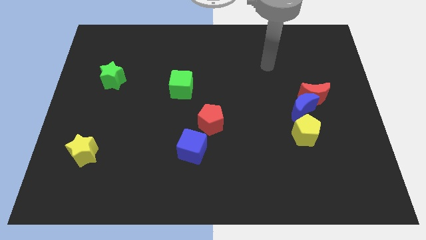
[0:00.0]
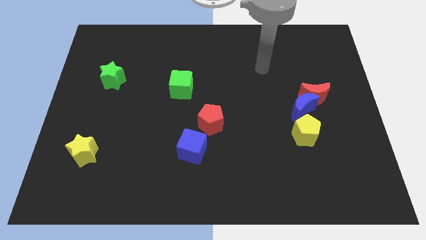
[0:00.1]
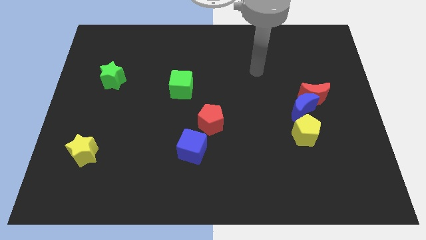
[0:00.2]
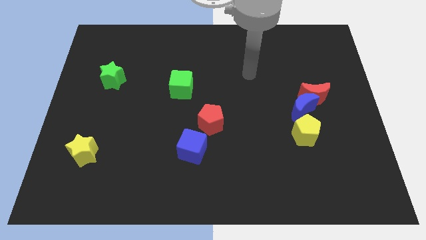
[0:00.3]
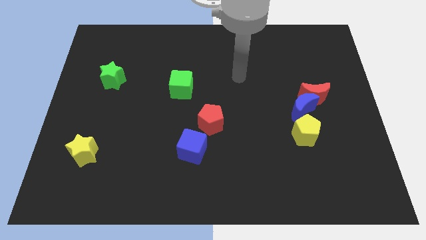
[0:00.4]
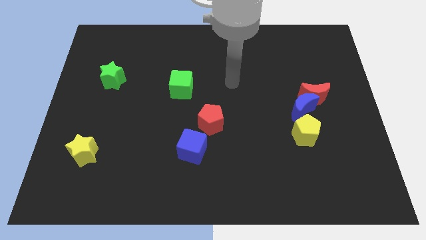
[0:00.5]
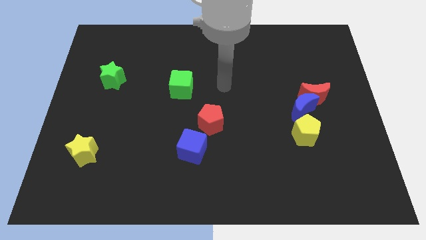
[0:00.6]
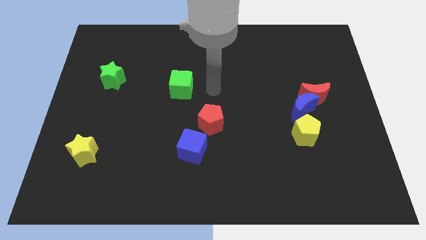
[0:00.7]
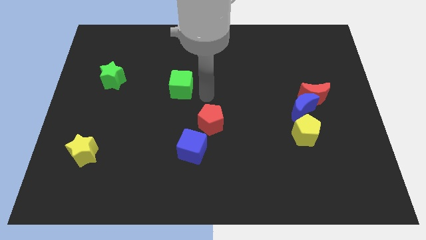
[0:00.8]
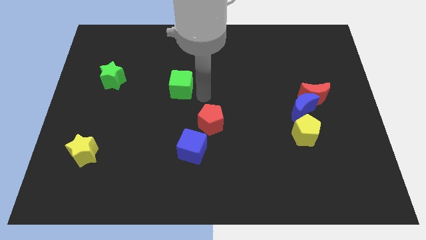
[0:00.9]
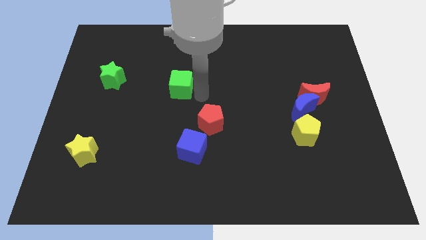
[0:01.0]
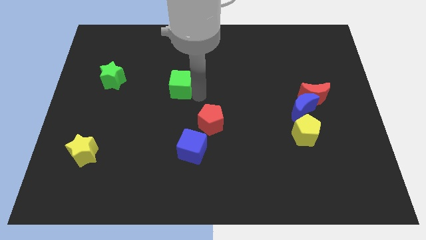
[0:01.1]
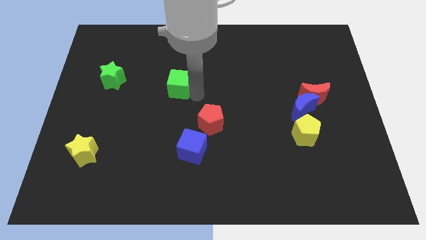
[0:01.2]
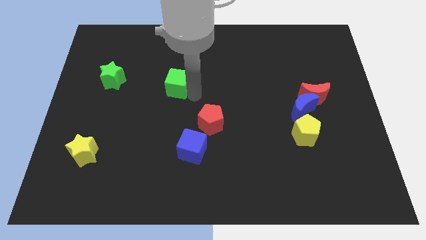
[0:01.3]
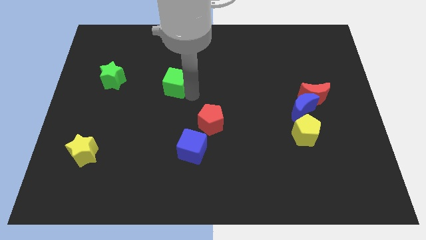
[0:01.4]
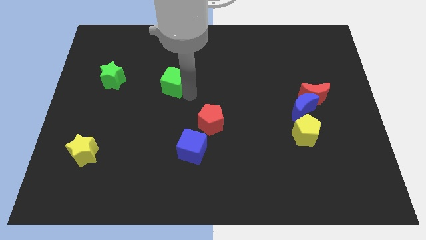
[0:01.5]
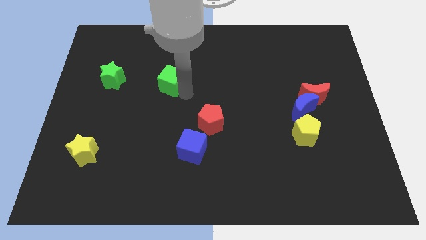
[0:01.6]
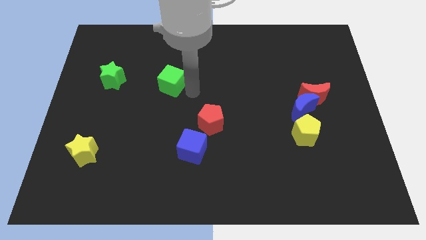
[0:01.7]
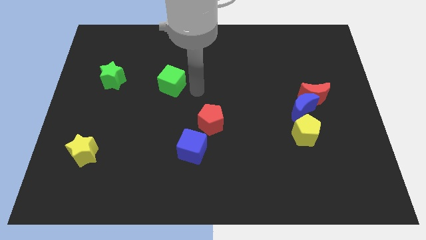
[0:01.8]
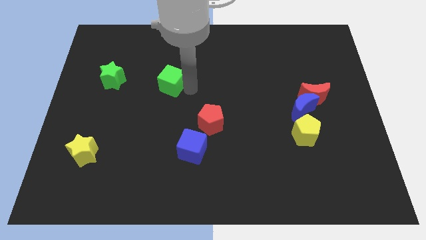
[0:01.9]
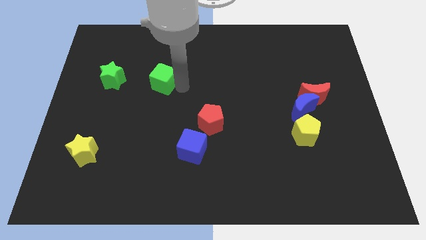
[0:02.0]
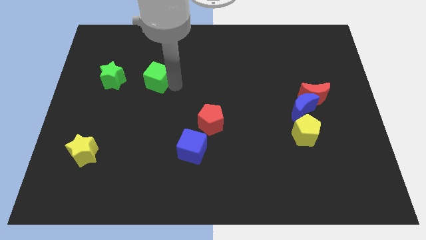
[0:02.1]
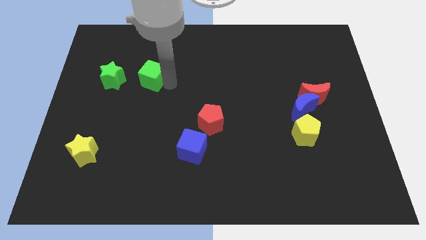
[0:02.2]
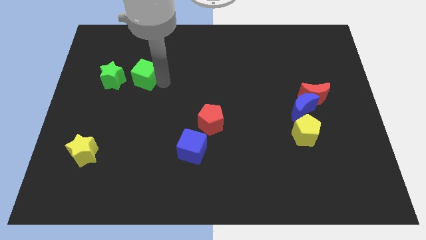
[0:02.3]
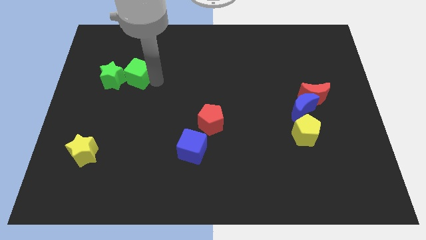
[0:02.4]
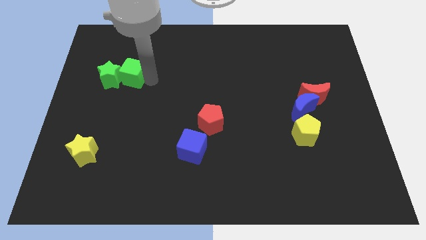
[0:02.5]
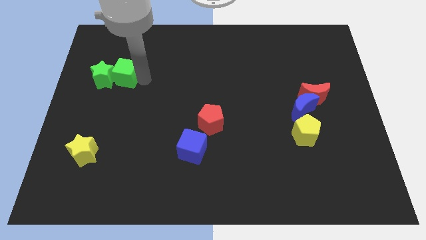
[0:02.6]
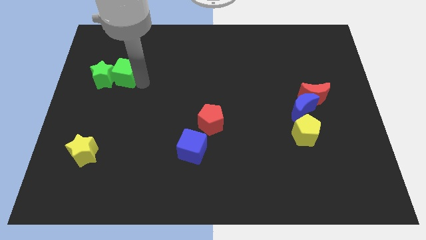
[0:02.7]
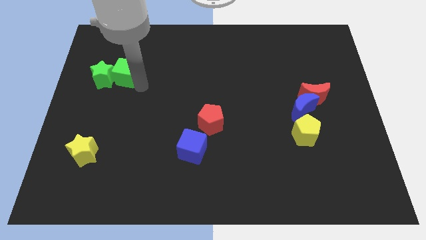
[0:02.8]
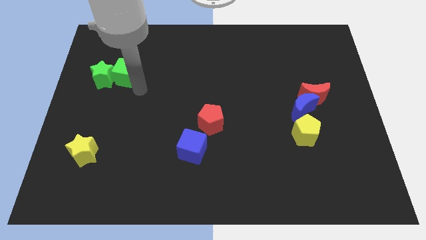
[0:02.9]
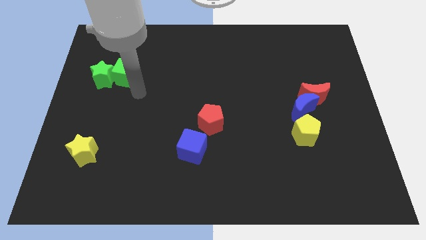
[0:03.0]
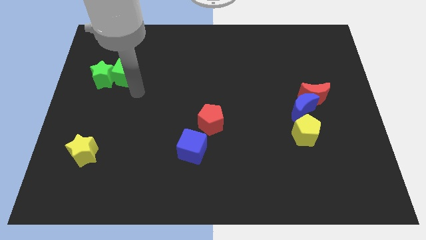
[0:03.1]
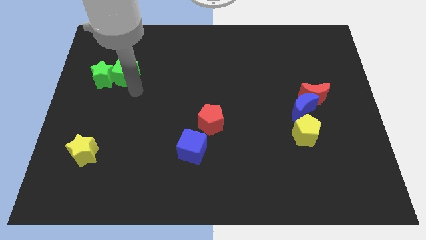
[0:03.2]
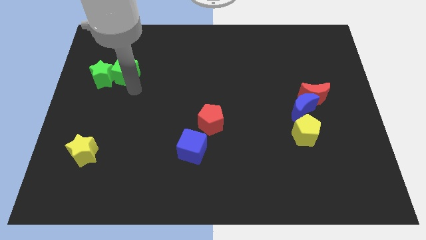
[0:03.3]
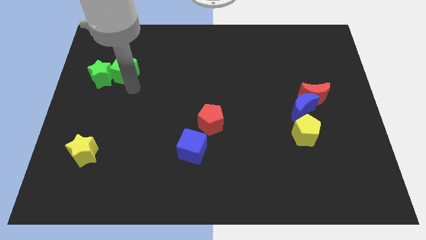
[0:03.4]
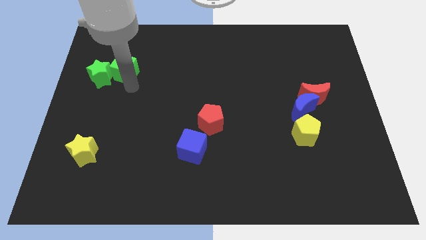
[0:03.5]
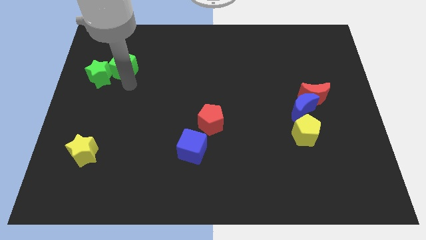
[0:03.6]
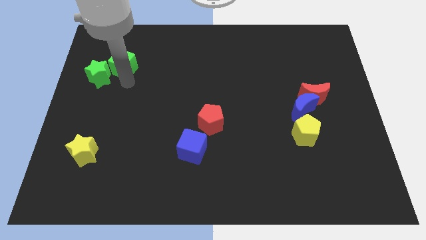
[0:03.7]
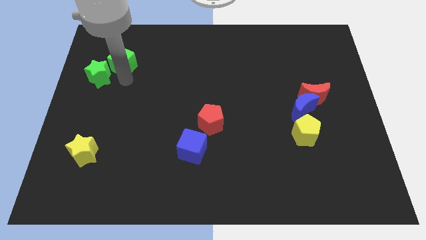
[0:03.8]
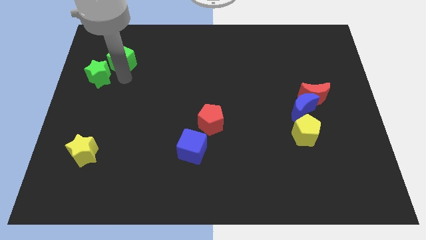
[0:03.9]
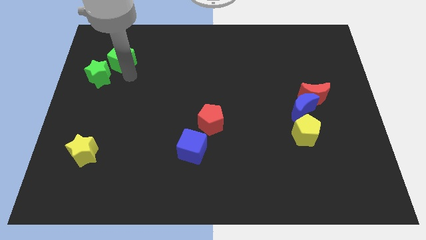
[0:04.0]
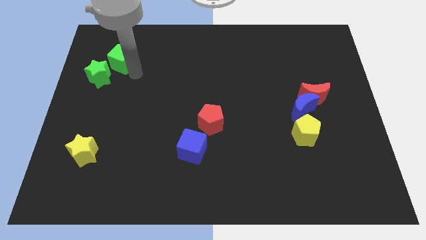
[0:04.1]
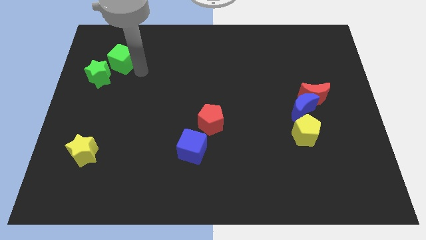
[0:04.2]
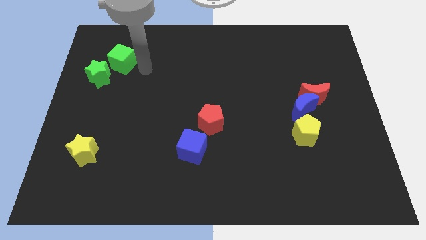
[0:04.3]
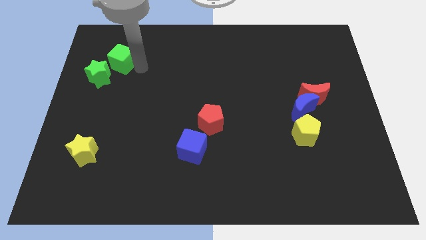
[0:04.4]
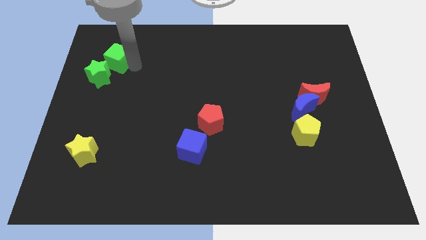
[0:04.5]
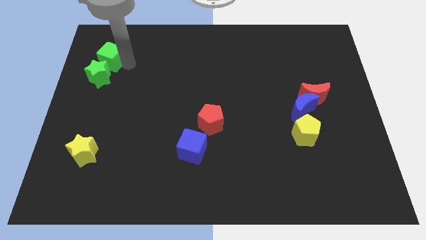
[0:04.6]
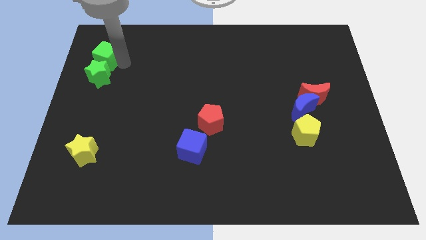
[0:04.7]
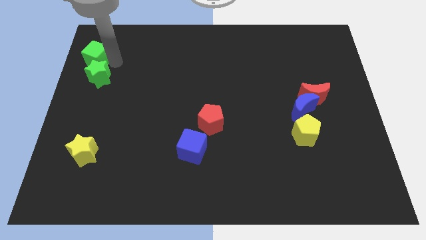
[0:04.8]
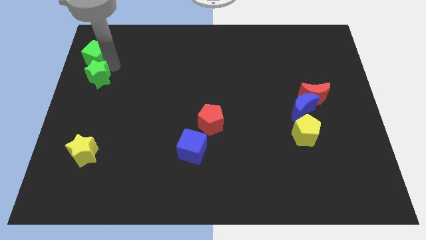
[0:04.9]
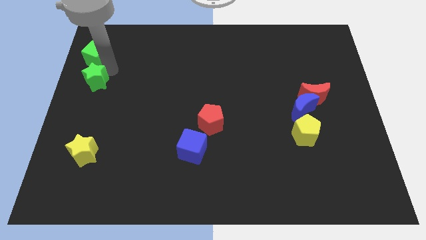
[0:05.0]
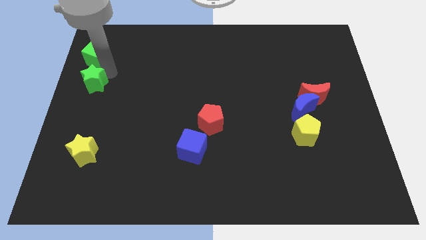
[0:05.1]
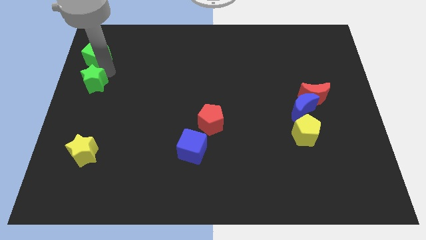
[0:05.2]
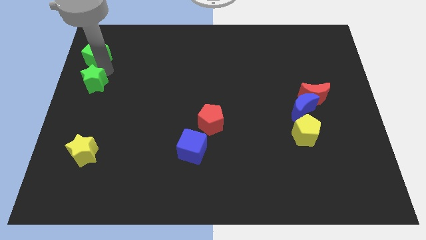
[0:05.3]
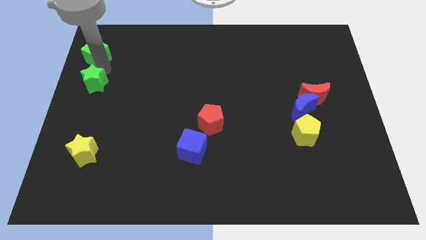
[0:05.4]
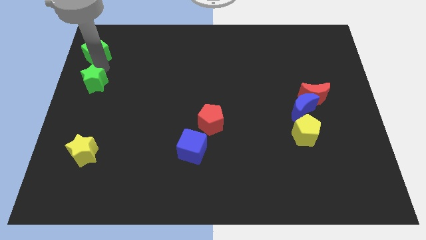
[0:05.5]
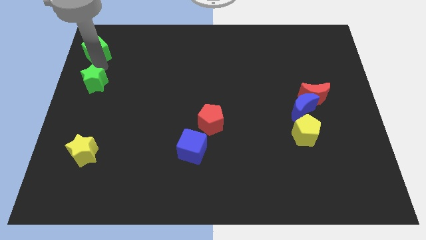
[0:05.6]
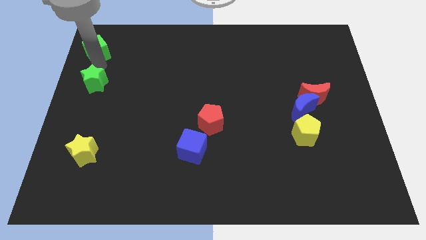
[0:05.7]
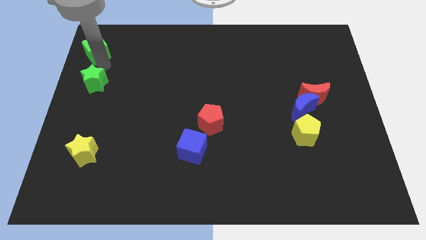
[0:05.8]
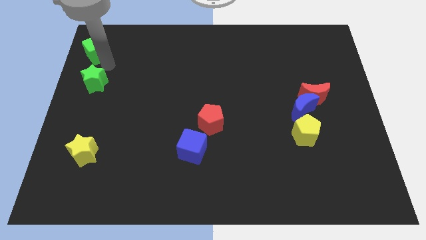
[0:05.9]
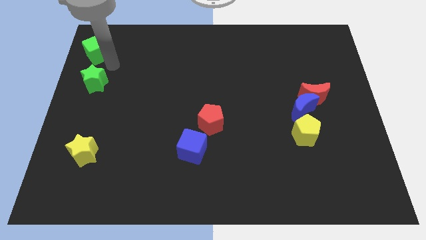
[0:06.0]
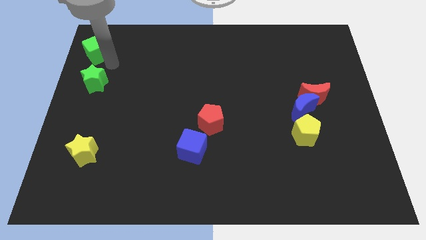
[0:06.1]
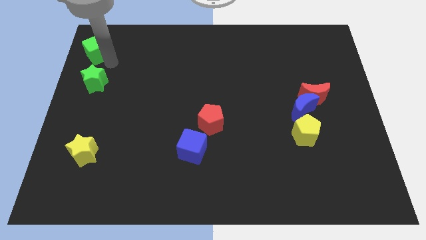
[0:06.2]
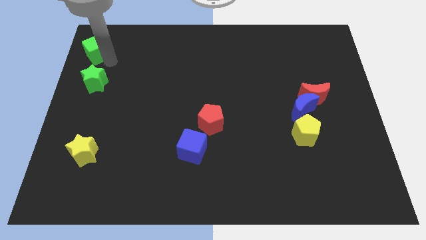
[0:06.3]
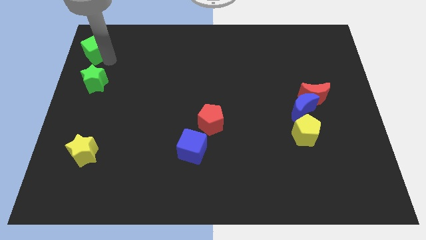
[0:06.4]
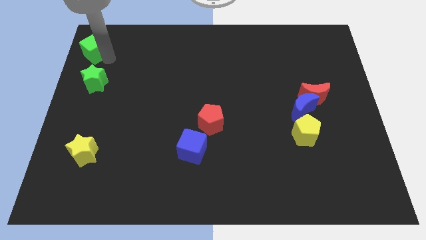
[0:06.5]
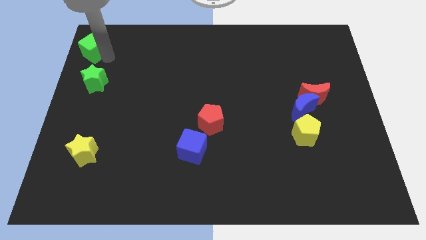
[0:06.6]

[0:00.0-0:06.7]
put the green cube to the top left
